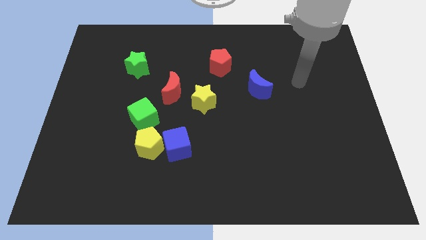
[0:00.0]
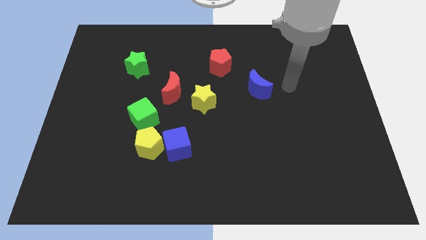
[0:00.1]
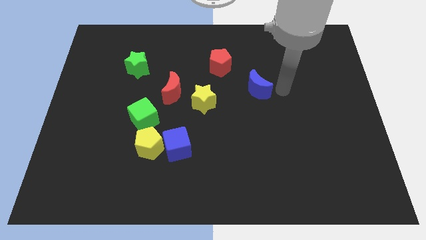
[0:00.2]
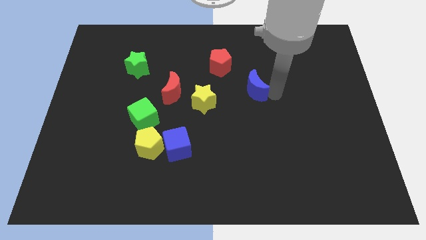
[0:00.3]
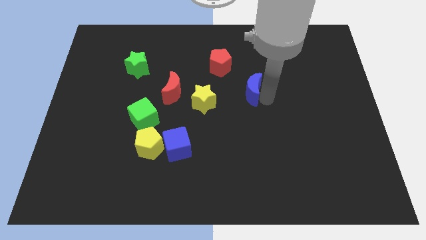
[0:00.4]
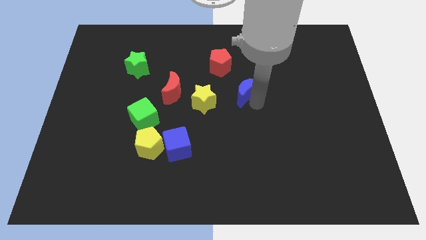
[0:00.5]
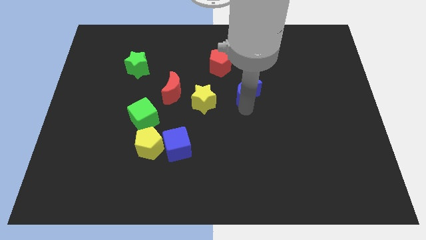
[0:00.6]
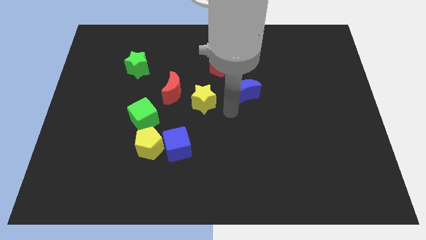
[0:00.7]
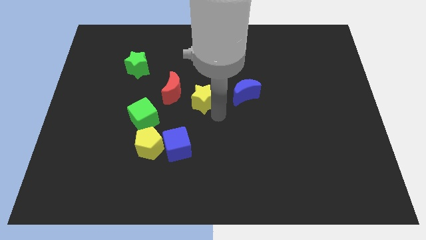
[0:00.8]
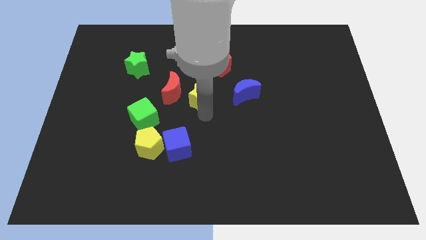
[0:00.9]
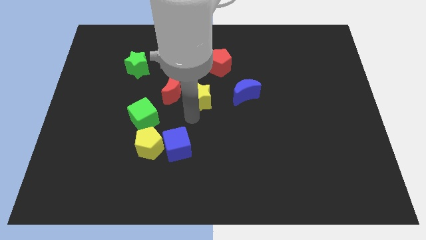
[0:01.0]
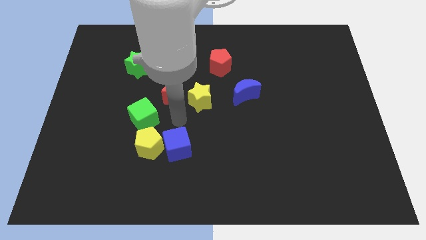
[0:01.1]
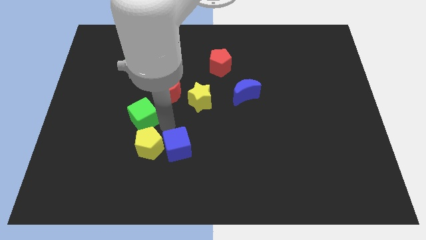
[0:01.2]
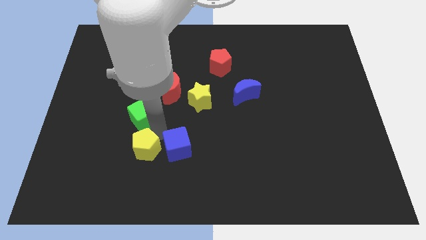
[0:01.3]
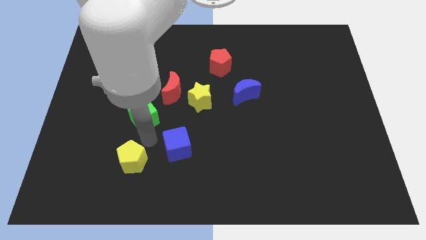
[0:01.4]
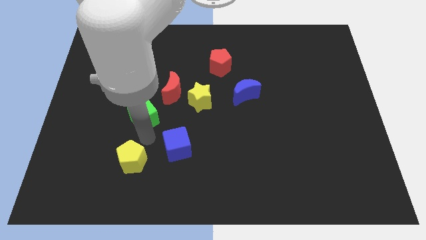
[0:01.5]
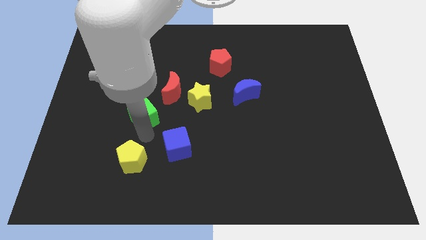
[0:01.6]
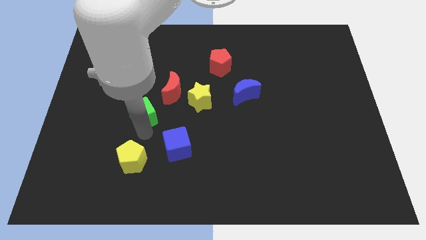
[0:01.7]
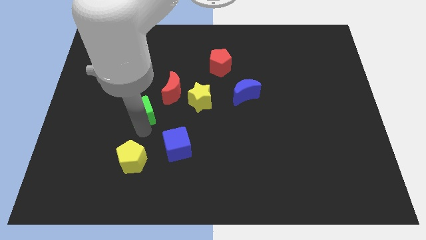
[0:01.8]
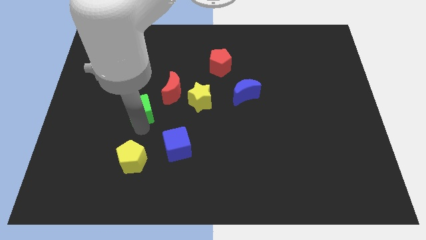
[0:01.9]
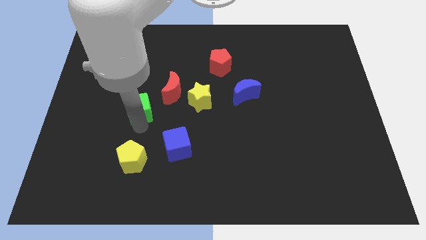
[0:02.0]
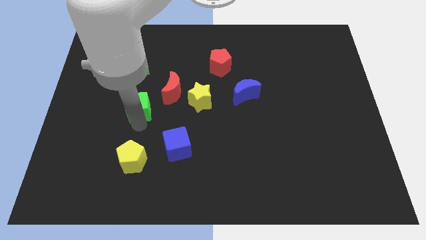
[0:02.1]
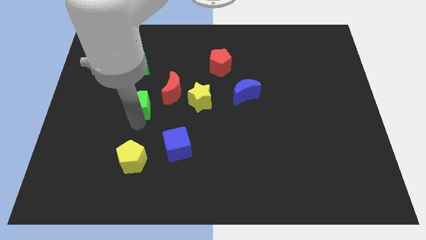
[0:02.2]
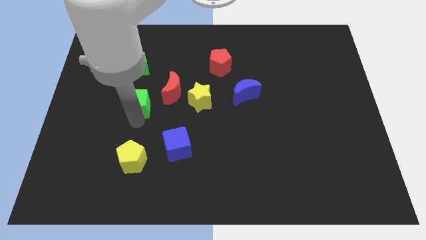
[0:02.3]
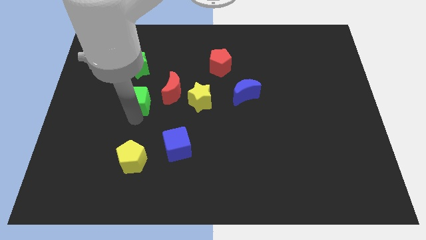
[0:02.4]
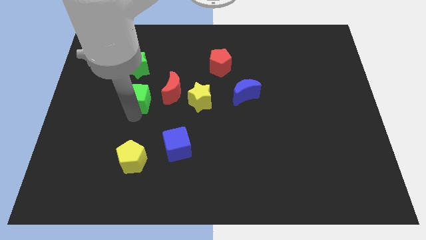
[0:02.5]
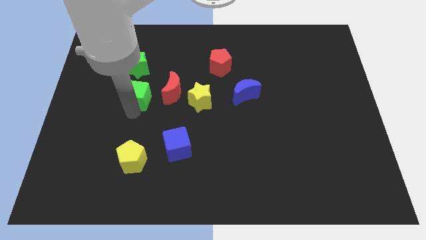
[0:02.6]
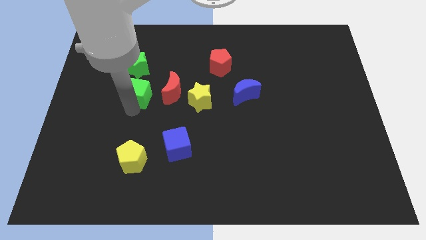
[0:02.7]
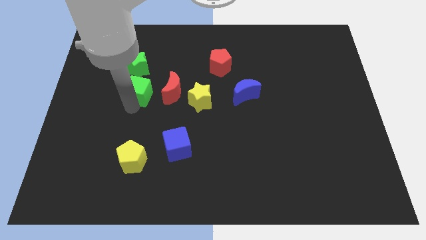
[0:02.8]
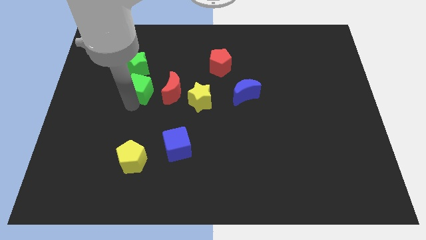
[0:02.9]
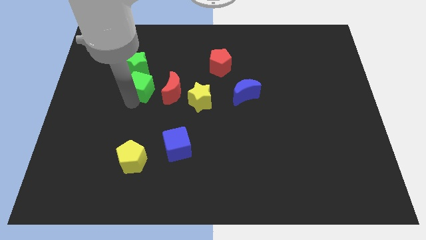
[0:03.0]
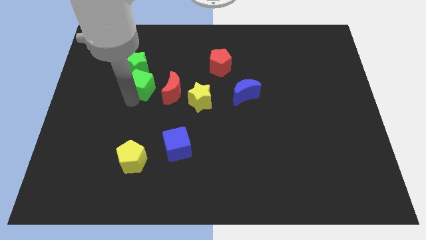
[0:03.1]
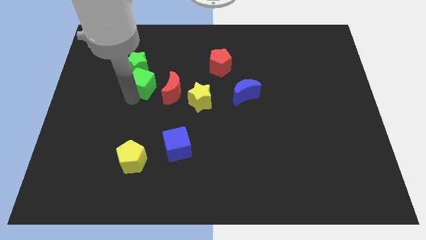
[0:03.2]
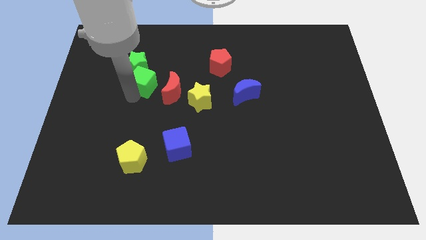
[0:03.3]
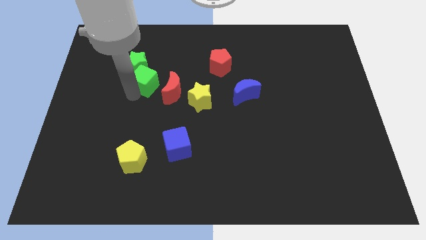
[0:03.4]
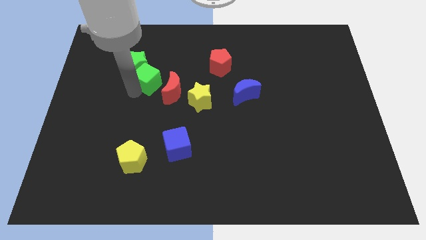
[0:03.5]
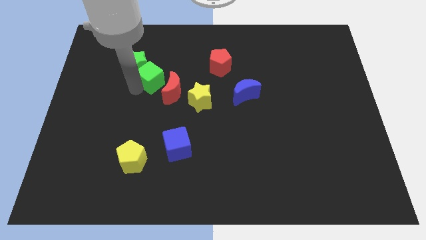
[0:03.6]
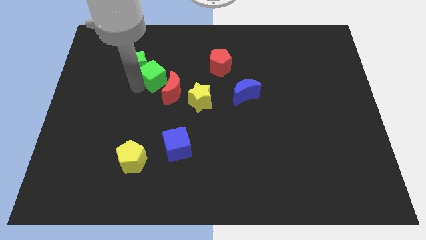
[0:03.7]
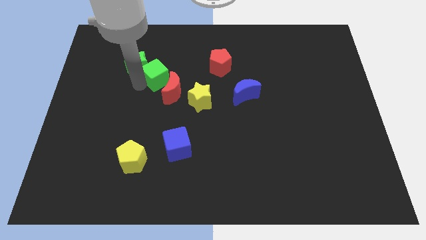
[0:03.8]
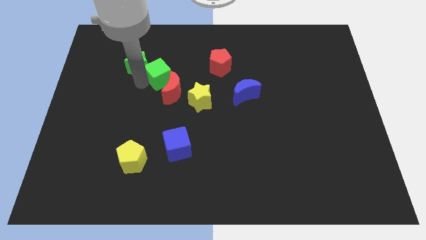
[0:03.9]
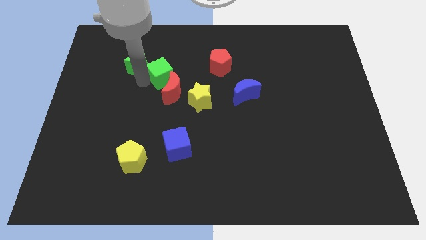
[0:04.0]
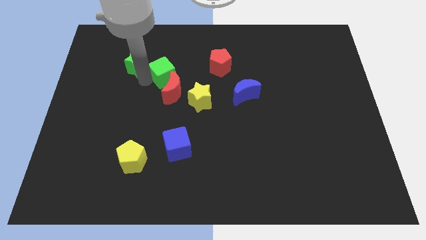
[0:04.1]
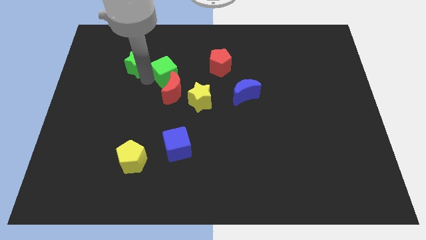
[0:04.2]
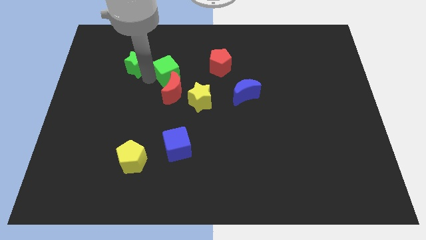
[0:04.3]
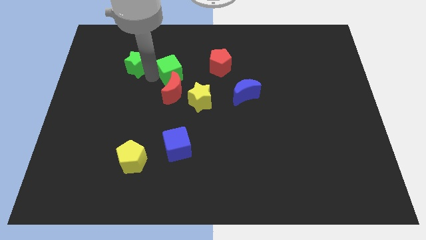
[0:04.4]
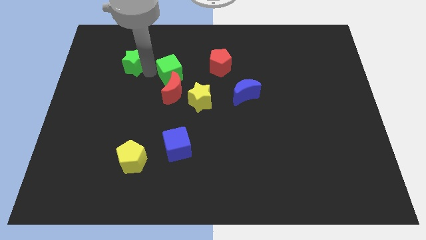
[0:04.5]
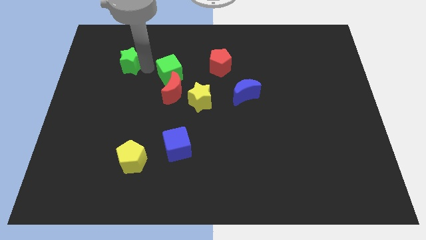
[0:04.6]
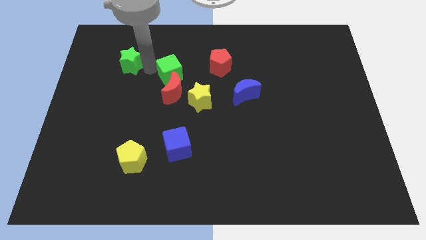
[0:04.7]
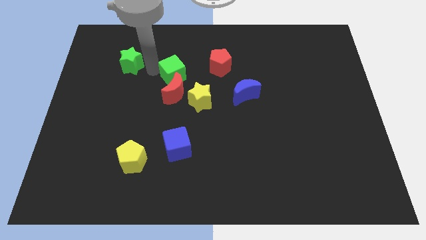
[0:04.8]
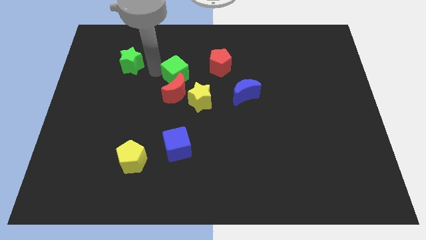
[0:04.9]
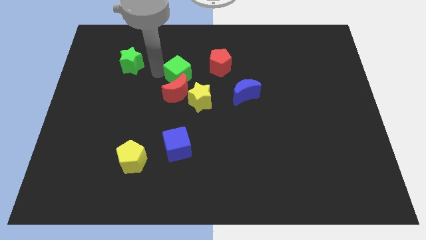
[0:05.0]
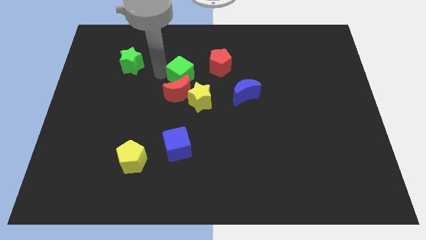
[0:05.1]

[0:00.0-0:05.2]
move the green cube to the bottom left of the red pentagon

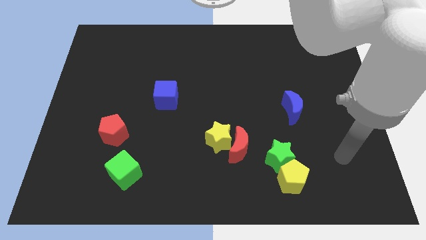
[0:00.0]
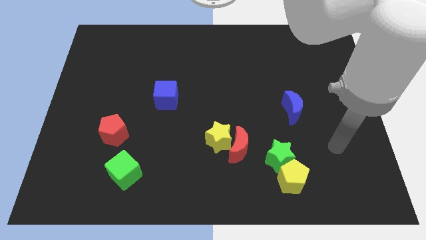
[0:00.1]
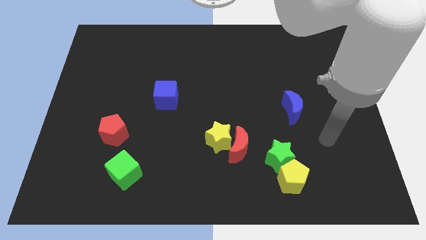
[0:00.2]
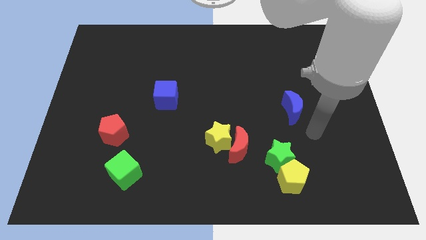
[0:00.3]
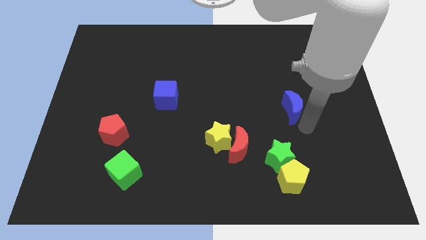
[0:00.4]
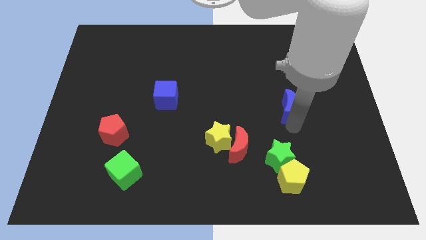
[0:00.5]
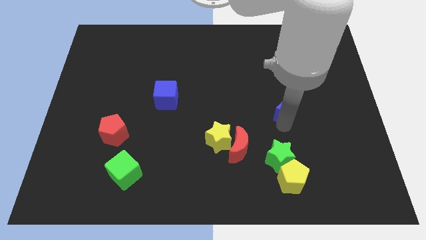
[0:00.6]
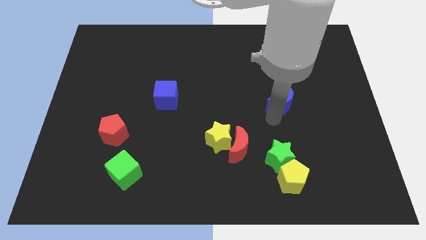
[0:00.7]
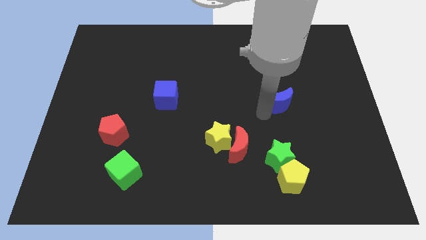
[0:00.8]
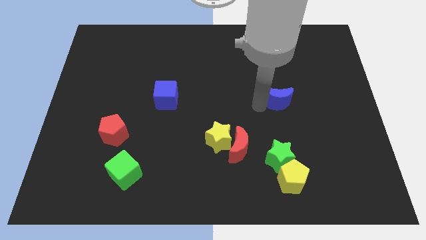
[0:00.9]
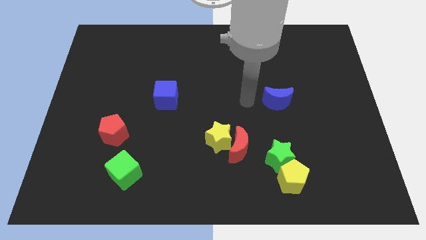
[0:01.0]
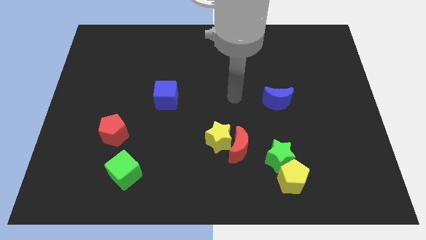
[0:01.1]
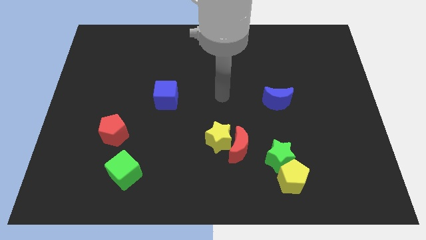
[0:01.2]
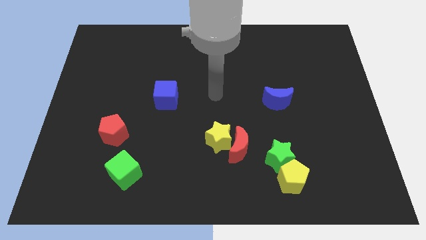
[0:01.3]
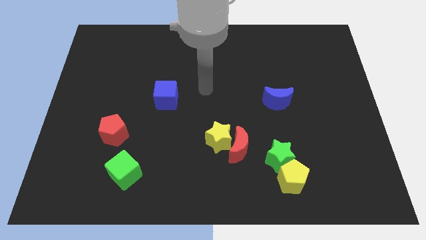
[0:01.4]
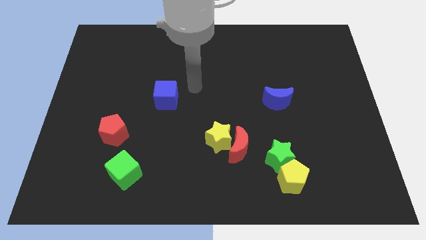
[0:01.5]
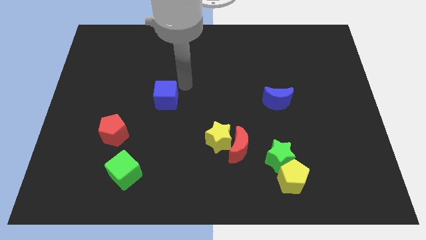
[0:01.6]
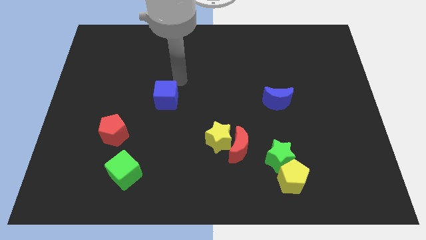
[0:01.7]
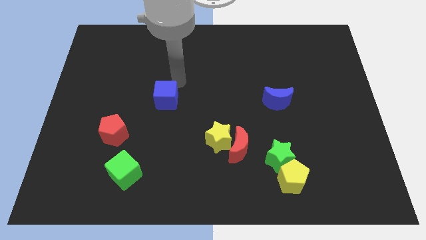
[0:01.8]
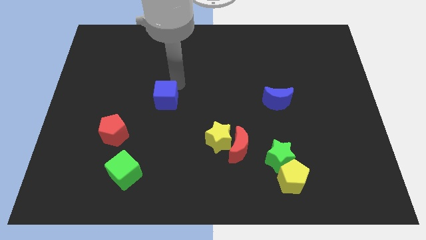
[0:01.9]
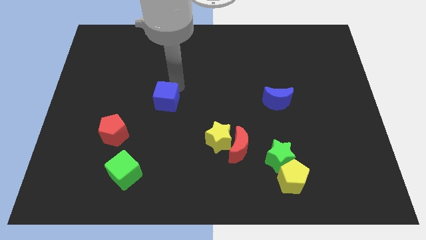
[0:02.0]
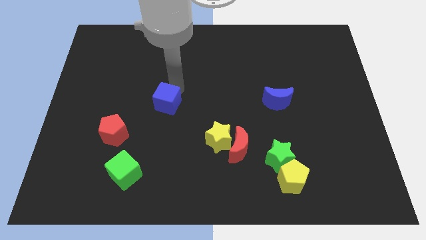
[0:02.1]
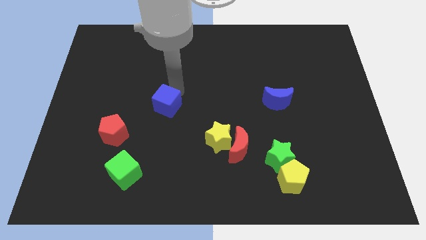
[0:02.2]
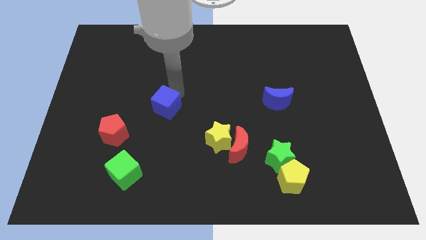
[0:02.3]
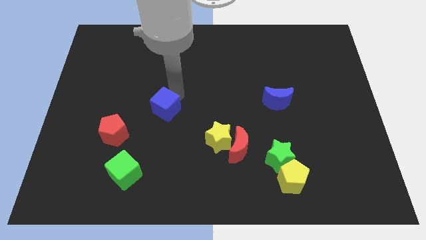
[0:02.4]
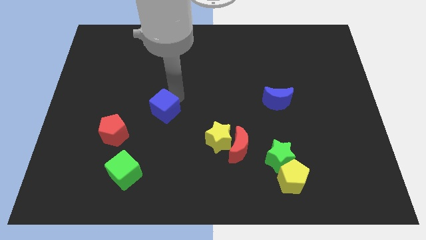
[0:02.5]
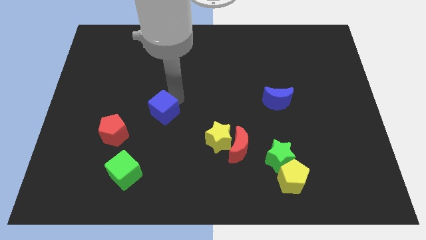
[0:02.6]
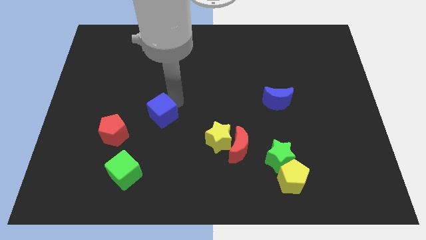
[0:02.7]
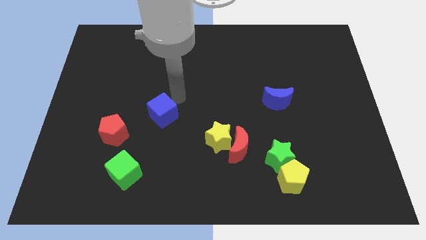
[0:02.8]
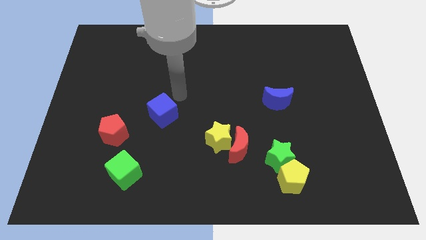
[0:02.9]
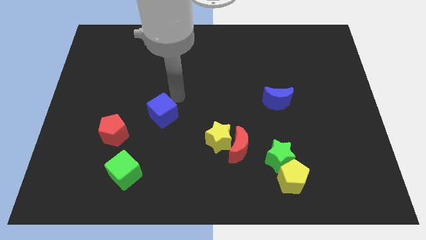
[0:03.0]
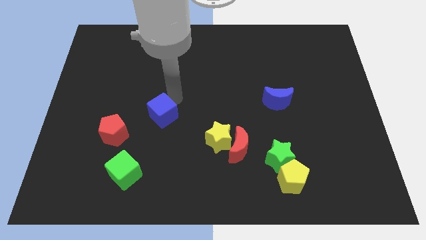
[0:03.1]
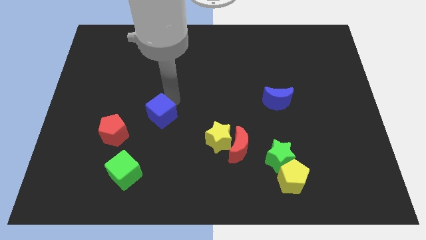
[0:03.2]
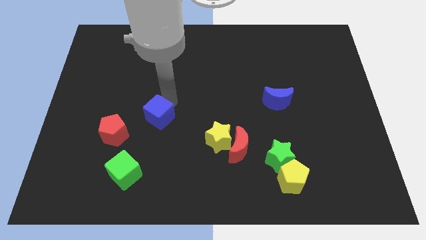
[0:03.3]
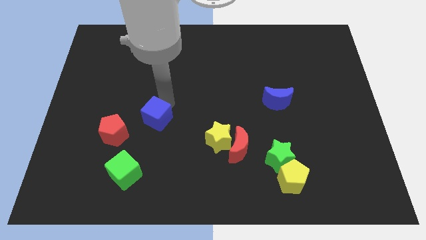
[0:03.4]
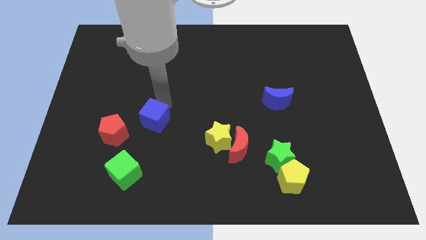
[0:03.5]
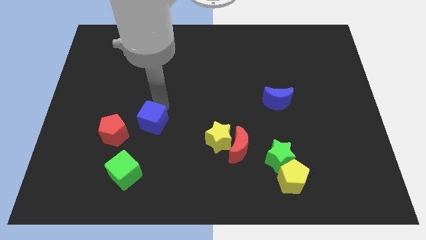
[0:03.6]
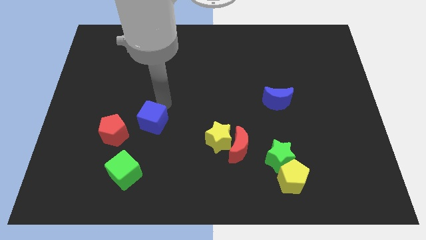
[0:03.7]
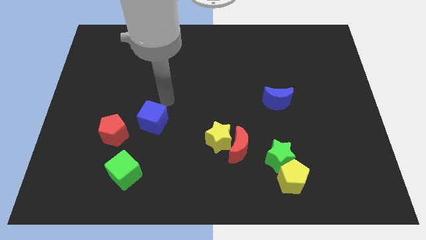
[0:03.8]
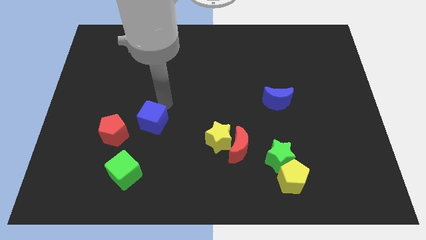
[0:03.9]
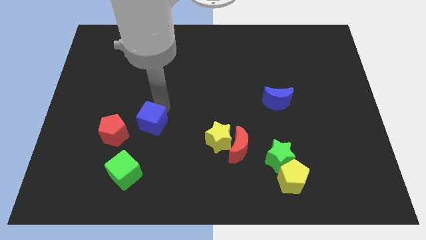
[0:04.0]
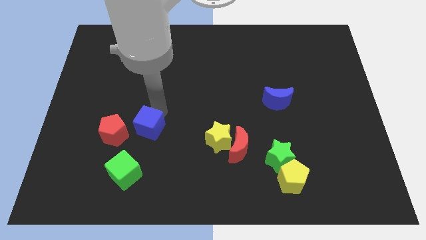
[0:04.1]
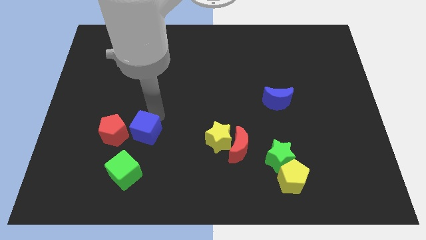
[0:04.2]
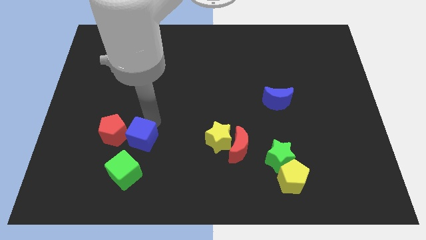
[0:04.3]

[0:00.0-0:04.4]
slide the blue cube to the bottom right side of the red pentagon
